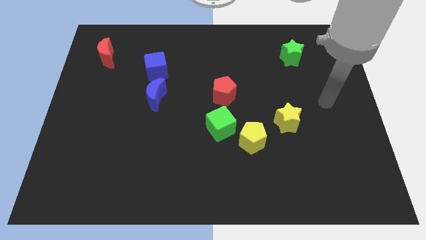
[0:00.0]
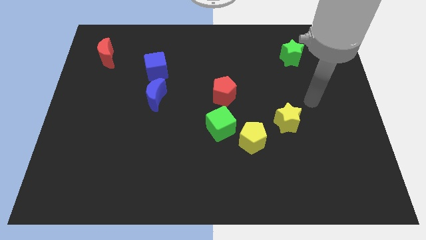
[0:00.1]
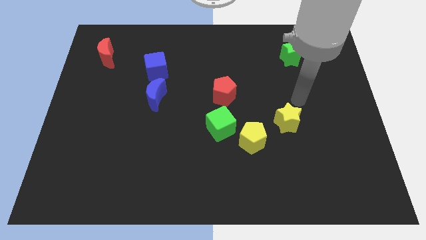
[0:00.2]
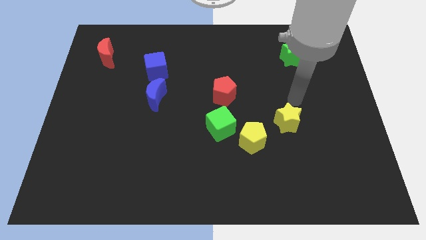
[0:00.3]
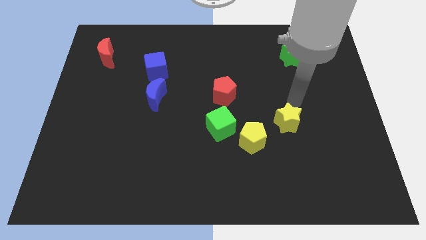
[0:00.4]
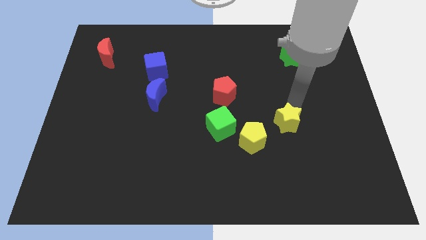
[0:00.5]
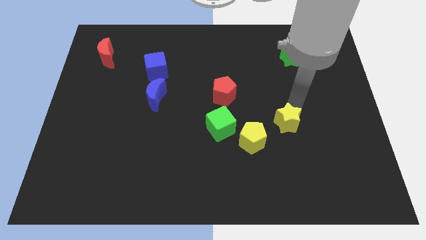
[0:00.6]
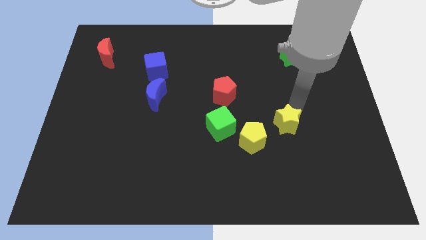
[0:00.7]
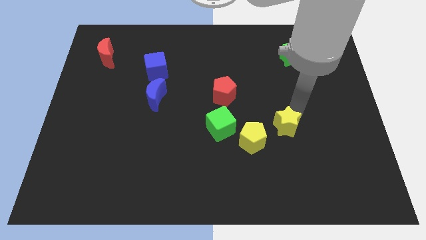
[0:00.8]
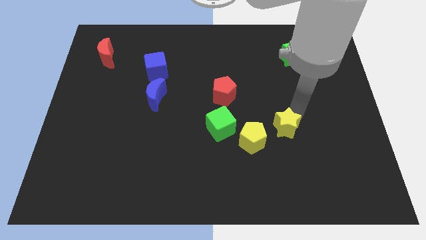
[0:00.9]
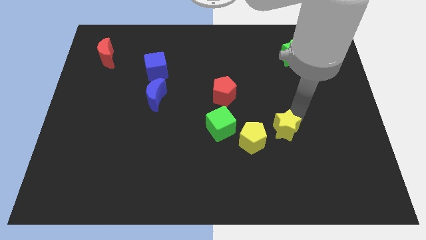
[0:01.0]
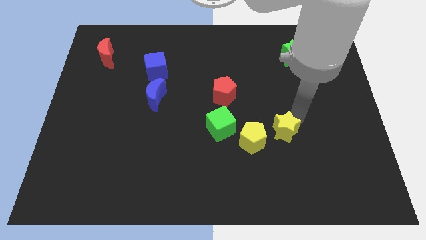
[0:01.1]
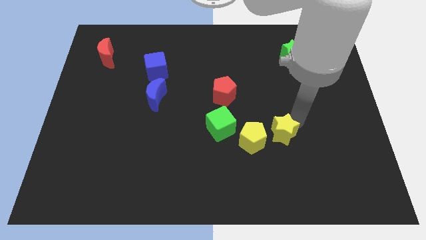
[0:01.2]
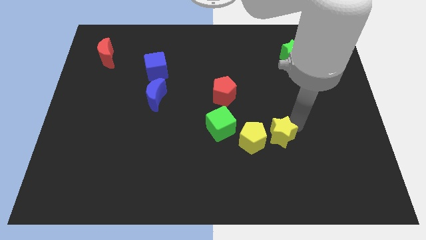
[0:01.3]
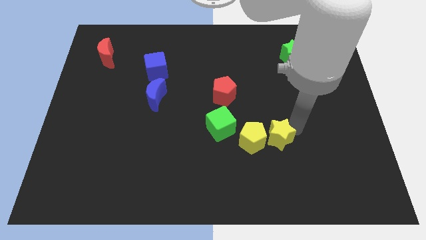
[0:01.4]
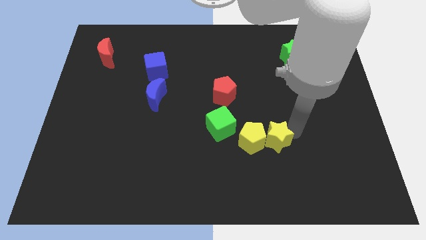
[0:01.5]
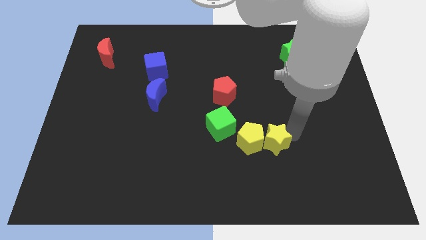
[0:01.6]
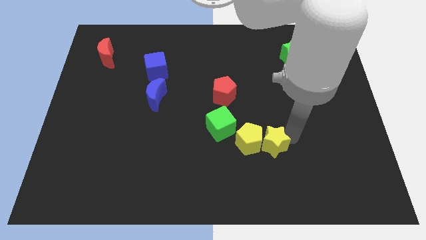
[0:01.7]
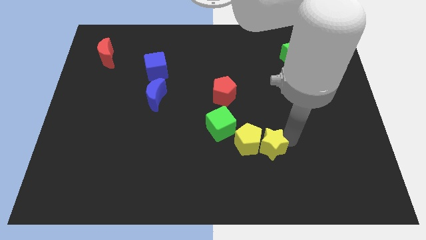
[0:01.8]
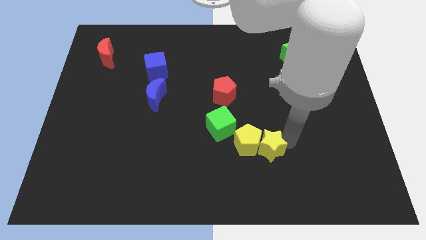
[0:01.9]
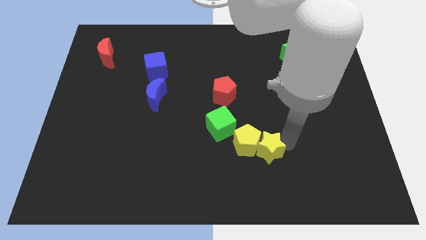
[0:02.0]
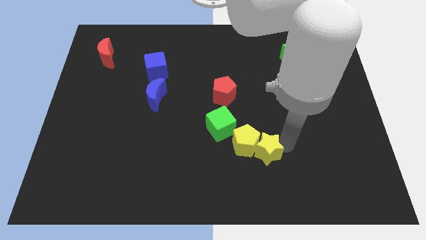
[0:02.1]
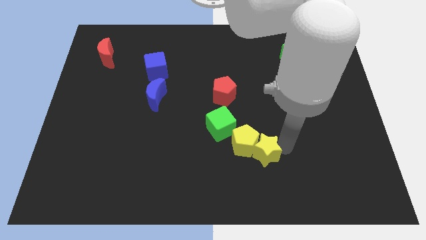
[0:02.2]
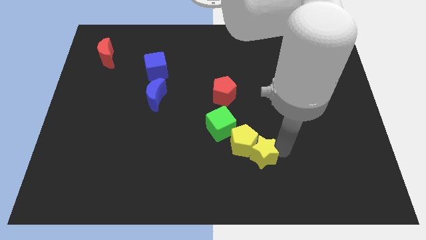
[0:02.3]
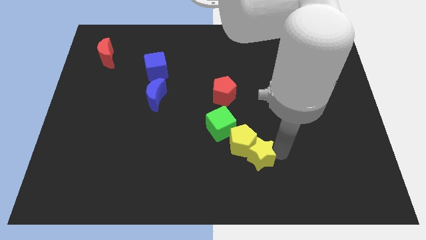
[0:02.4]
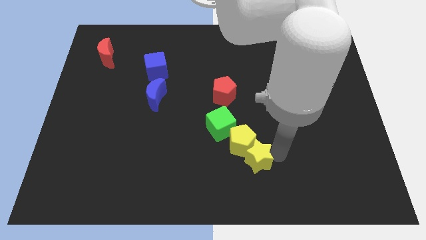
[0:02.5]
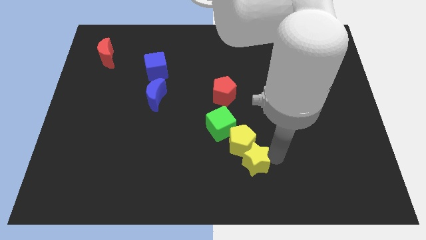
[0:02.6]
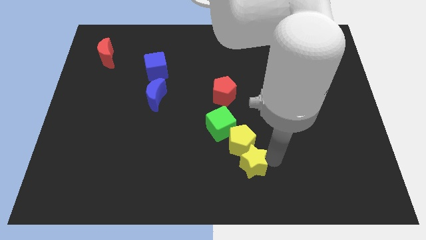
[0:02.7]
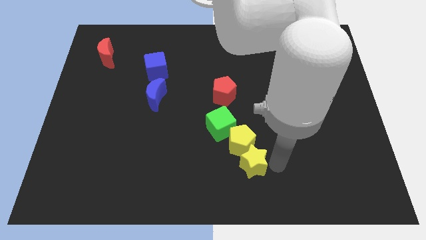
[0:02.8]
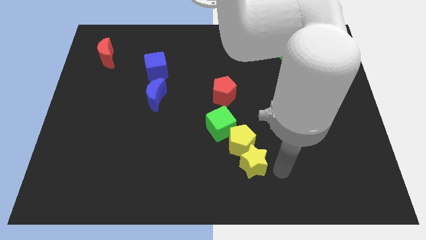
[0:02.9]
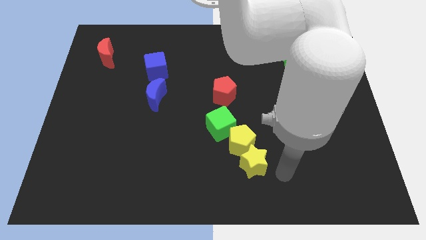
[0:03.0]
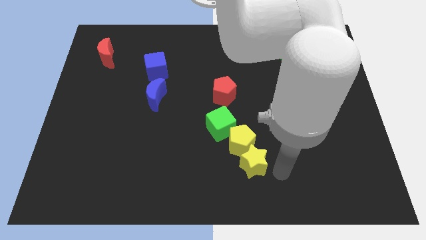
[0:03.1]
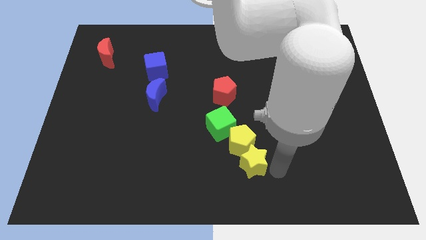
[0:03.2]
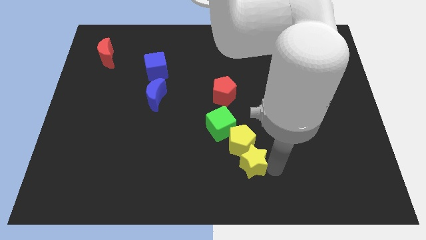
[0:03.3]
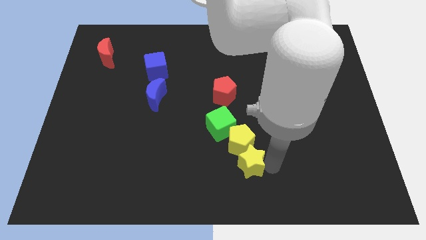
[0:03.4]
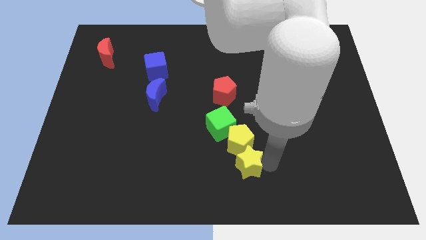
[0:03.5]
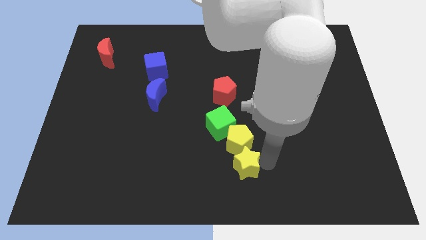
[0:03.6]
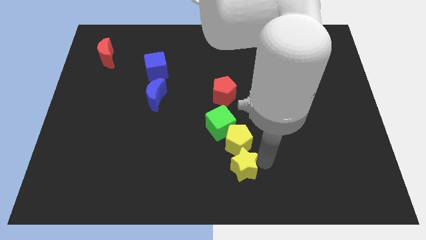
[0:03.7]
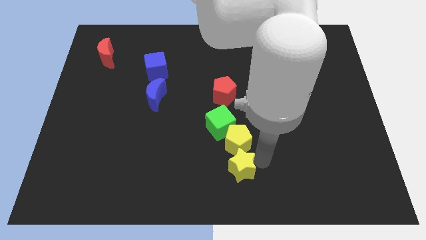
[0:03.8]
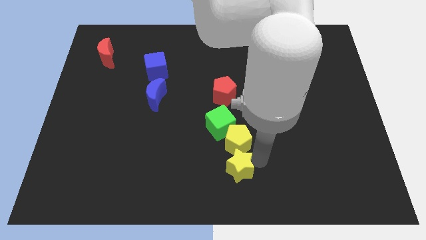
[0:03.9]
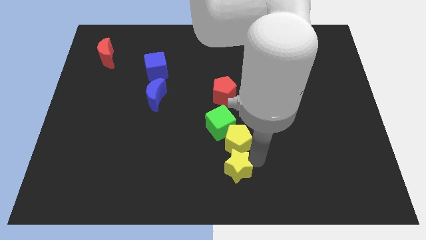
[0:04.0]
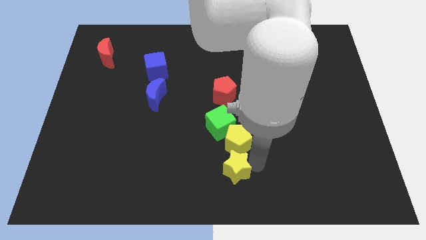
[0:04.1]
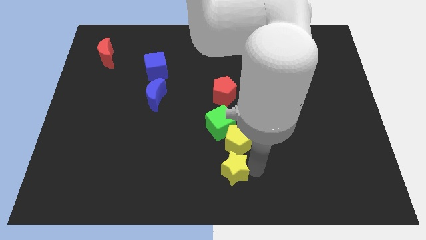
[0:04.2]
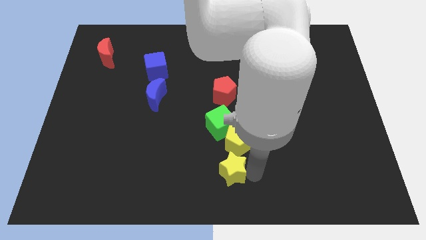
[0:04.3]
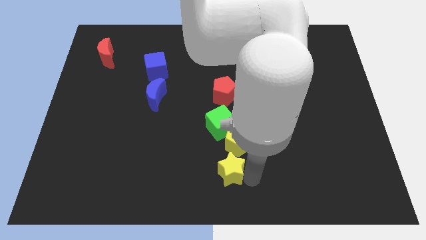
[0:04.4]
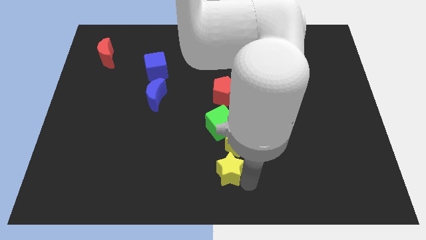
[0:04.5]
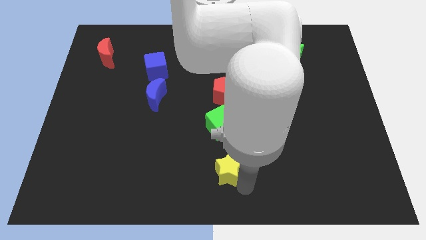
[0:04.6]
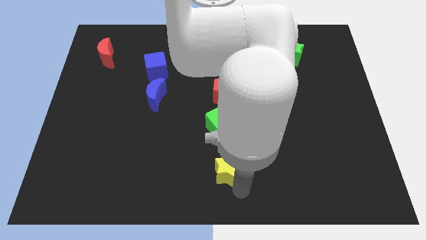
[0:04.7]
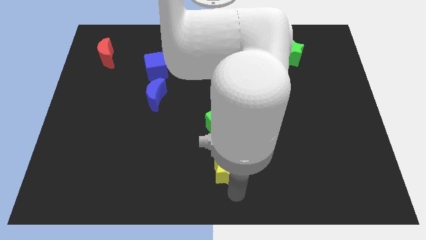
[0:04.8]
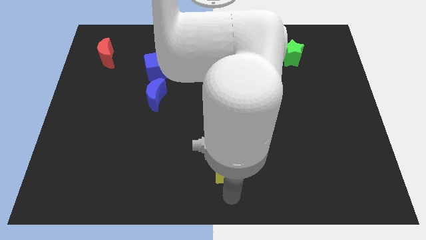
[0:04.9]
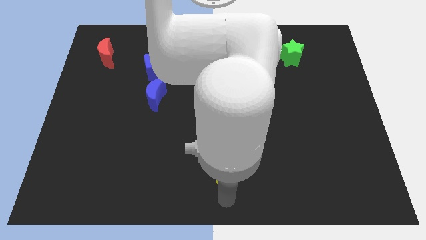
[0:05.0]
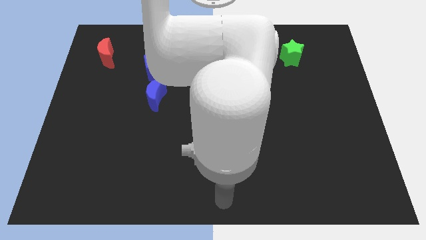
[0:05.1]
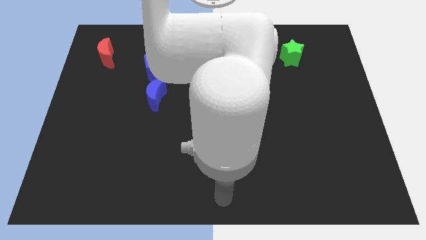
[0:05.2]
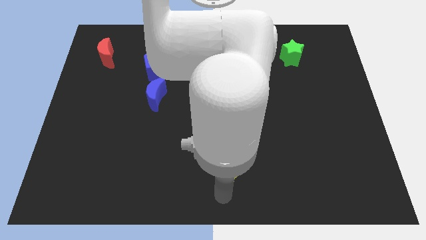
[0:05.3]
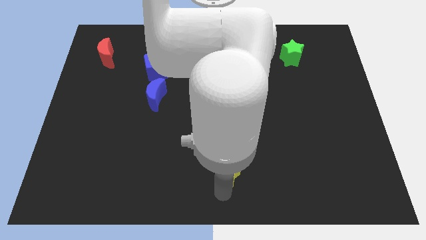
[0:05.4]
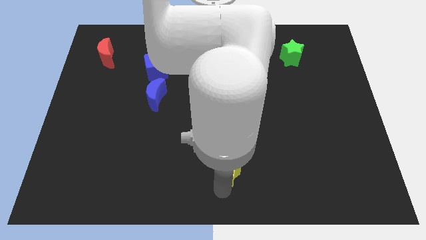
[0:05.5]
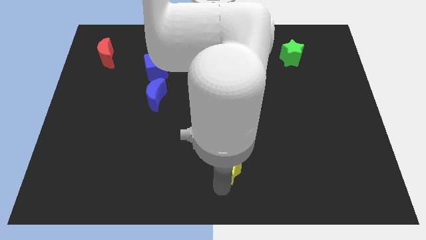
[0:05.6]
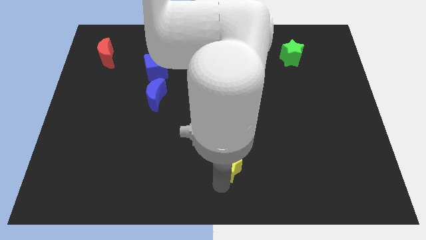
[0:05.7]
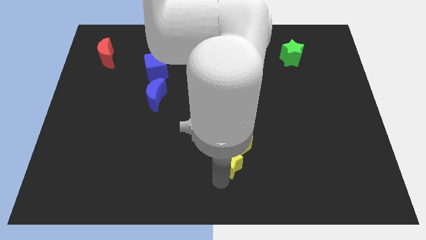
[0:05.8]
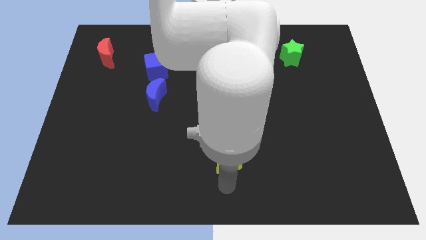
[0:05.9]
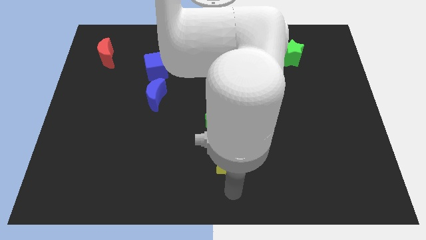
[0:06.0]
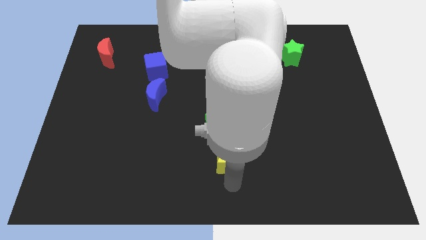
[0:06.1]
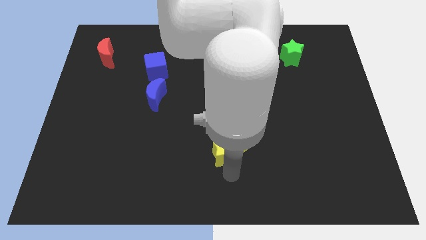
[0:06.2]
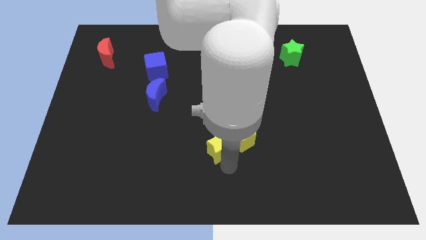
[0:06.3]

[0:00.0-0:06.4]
slide the yellow star below the red pentagon
